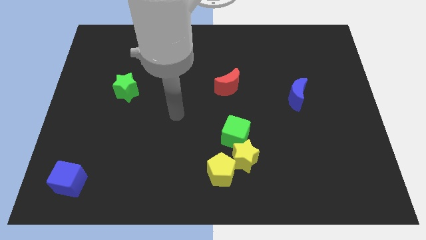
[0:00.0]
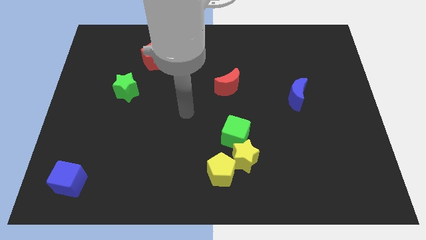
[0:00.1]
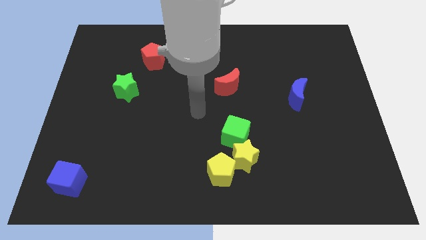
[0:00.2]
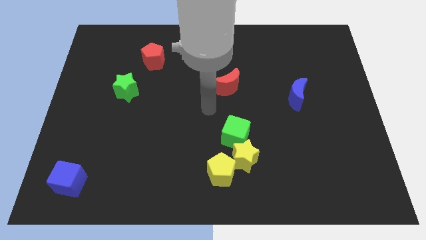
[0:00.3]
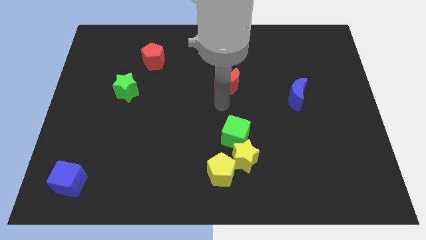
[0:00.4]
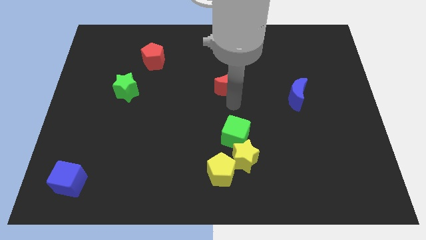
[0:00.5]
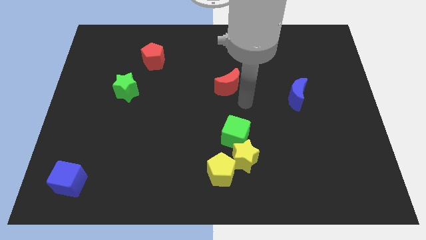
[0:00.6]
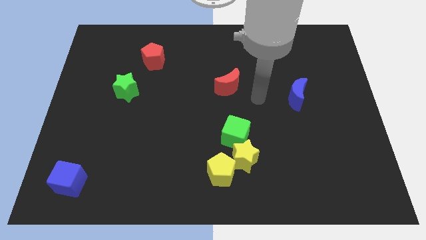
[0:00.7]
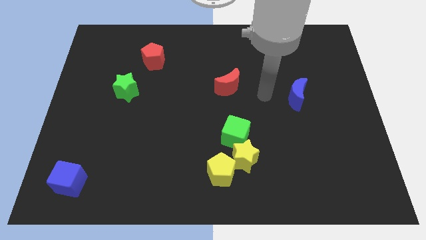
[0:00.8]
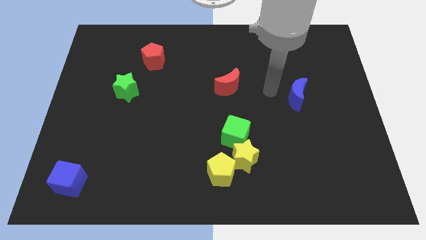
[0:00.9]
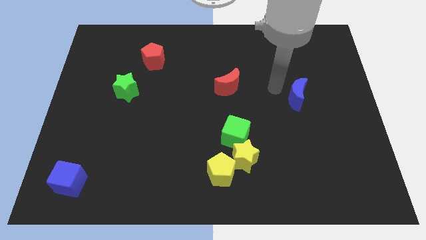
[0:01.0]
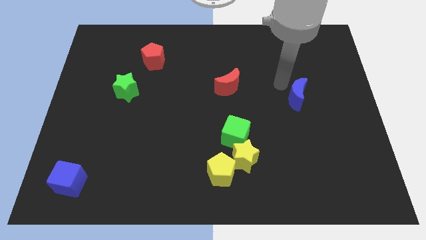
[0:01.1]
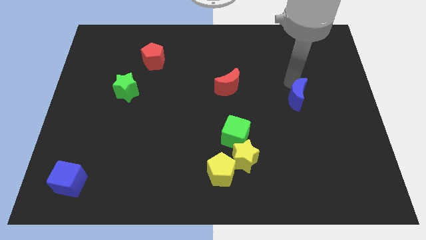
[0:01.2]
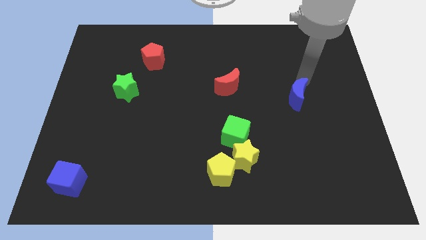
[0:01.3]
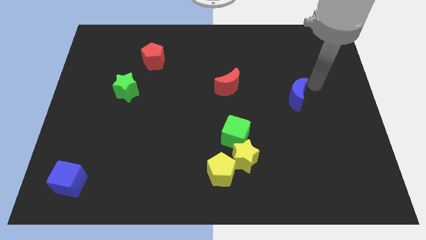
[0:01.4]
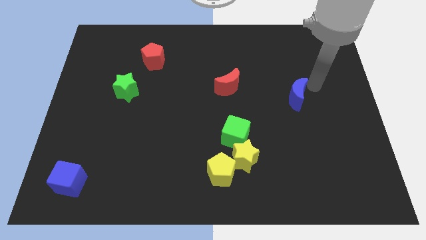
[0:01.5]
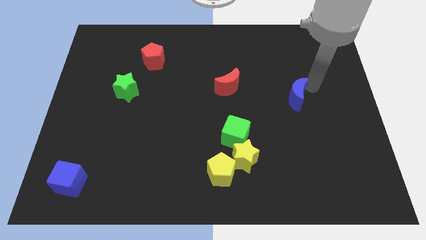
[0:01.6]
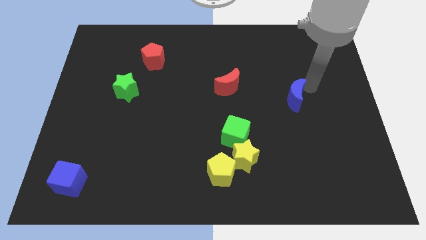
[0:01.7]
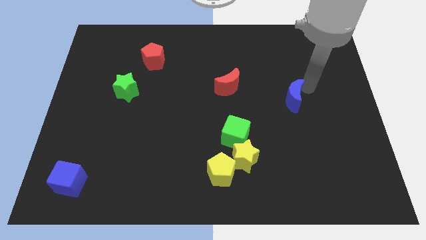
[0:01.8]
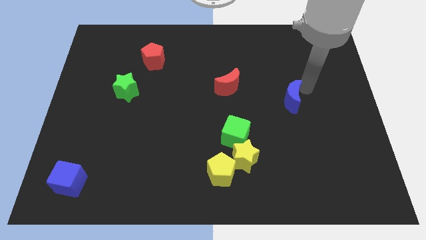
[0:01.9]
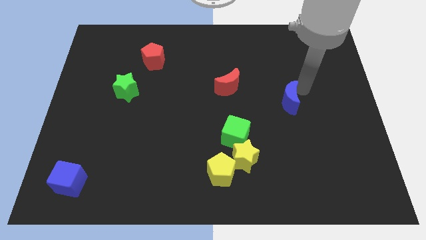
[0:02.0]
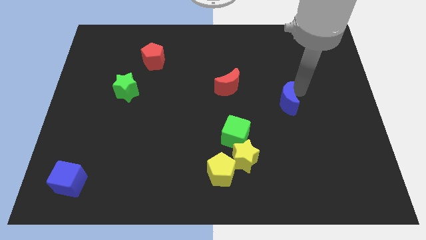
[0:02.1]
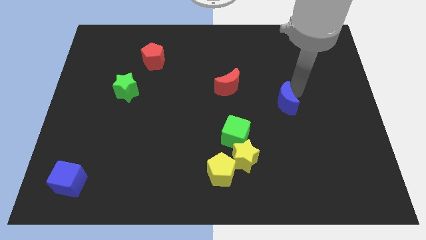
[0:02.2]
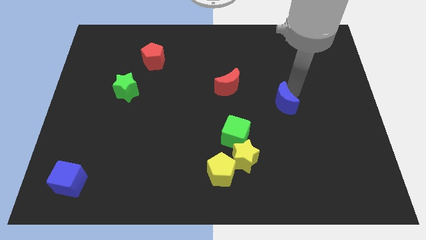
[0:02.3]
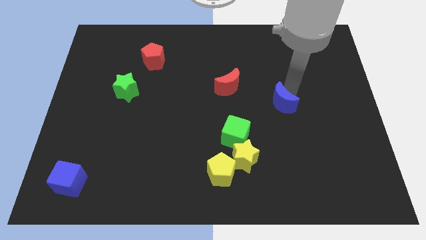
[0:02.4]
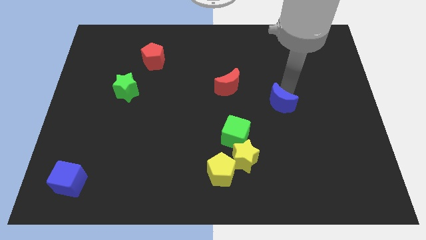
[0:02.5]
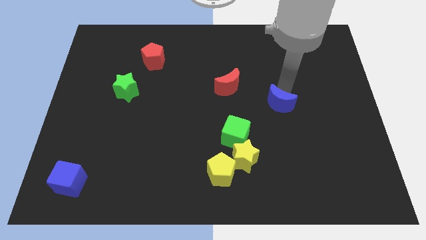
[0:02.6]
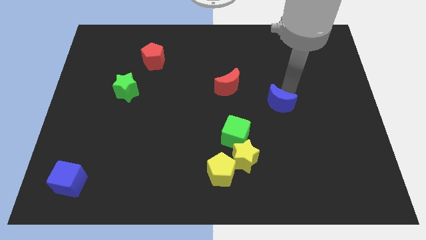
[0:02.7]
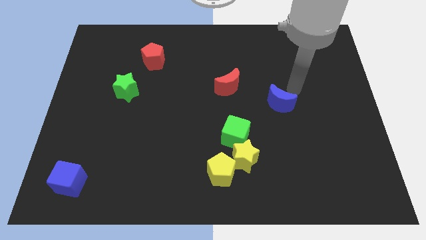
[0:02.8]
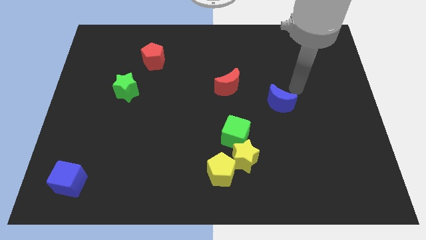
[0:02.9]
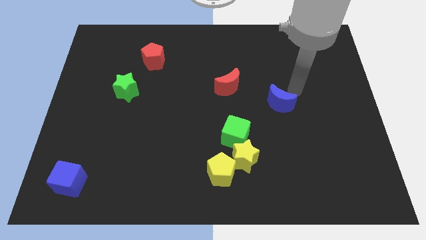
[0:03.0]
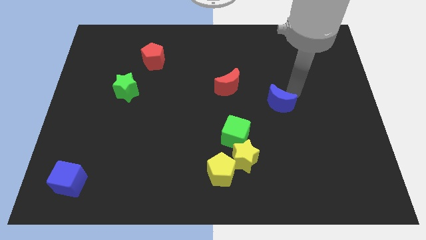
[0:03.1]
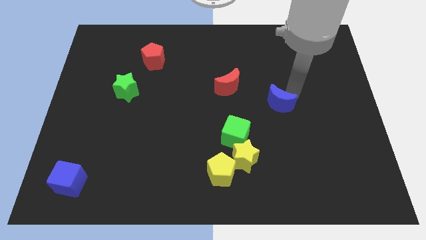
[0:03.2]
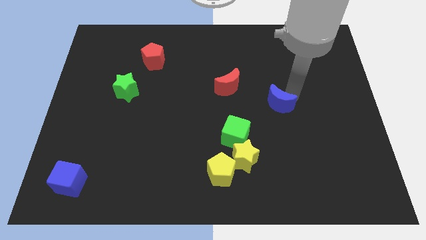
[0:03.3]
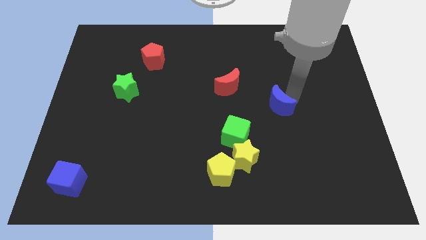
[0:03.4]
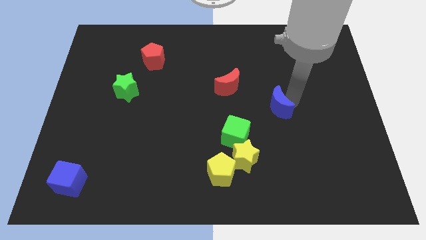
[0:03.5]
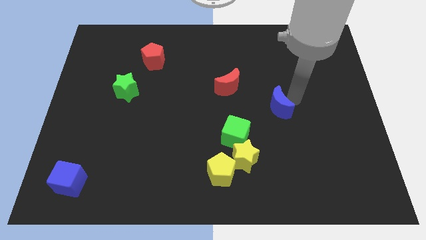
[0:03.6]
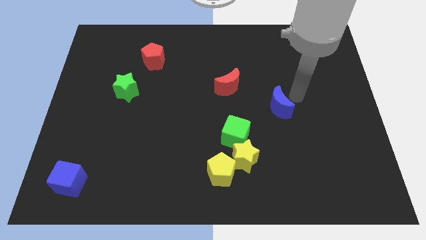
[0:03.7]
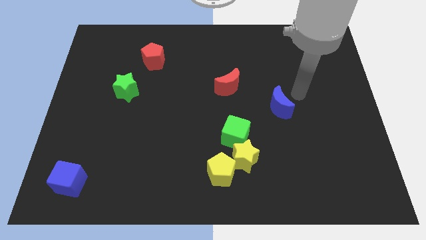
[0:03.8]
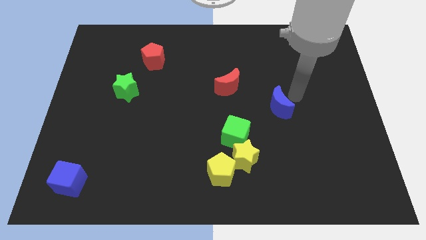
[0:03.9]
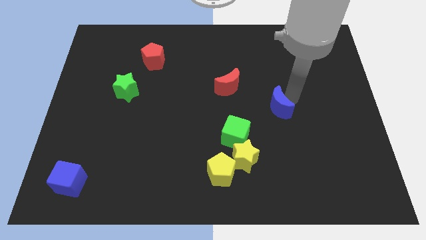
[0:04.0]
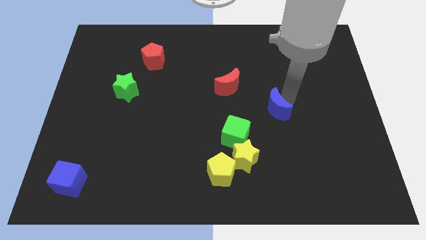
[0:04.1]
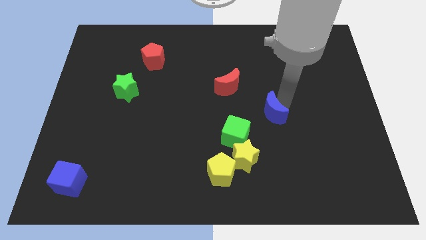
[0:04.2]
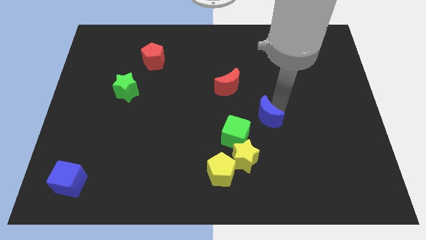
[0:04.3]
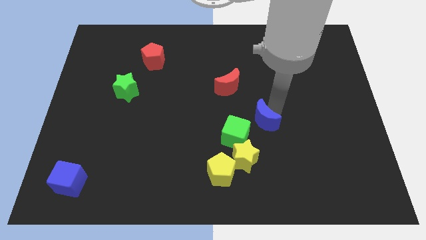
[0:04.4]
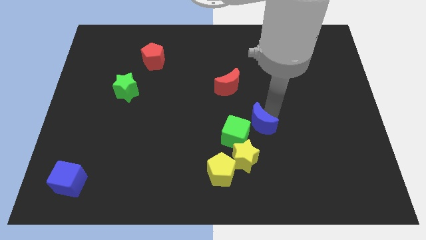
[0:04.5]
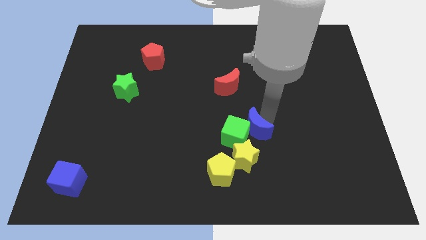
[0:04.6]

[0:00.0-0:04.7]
move the blue moon to the green cube

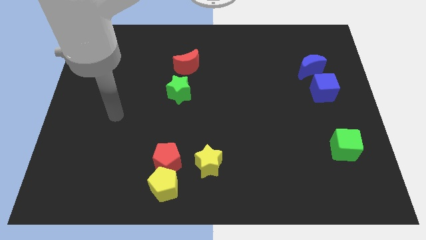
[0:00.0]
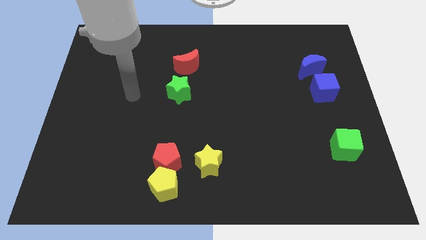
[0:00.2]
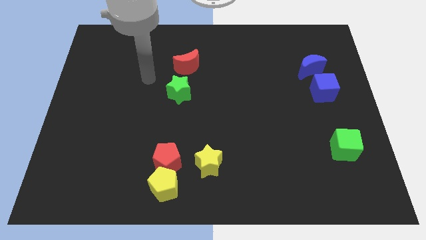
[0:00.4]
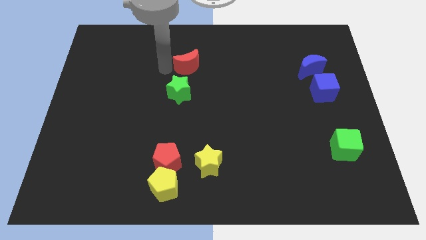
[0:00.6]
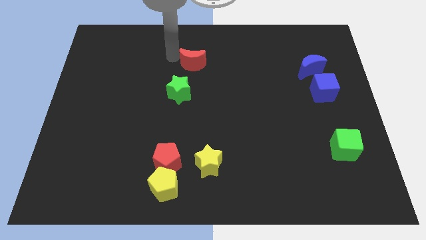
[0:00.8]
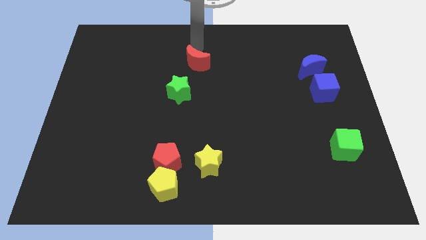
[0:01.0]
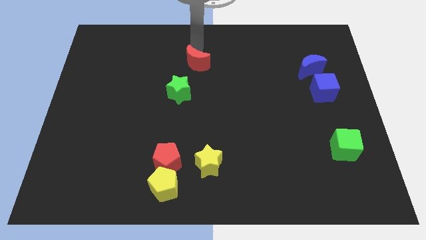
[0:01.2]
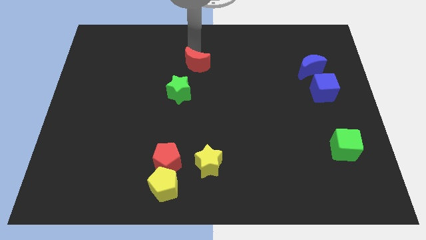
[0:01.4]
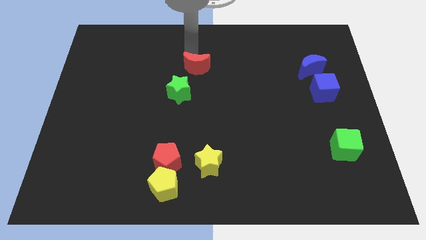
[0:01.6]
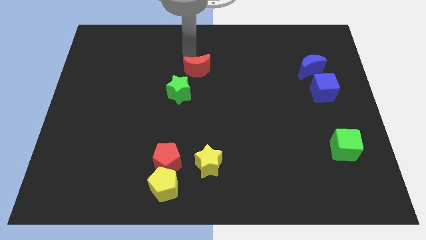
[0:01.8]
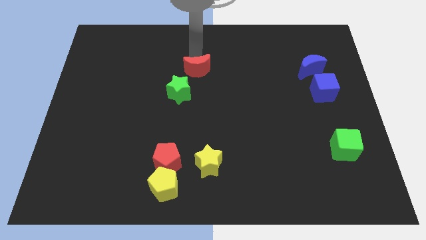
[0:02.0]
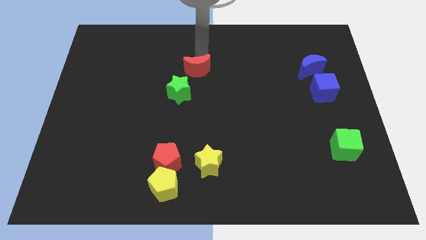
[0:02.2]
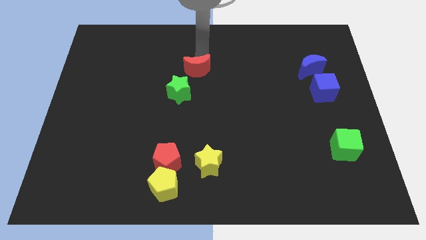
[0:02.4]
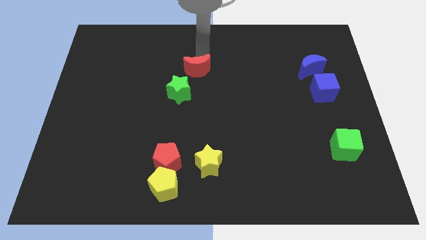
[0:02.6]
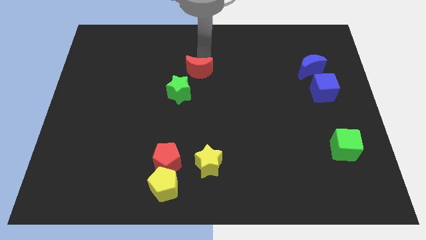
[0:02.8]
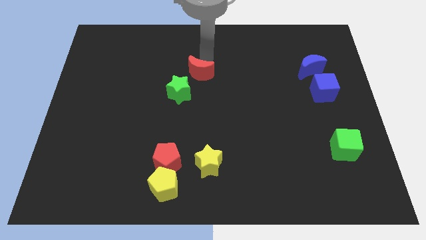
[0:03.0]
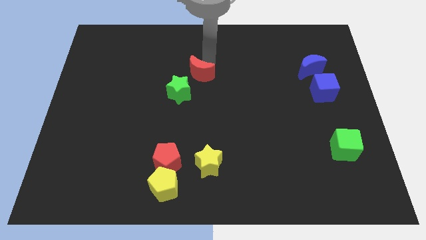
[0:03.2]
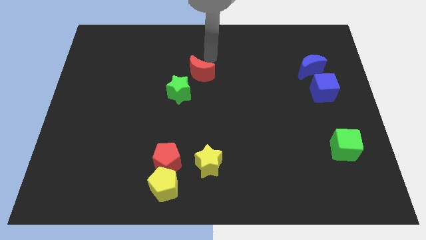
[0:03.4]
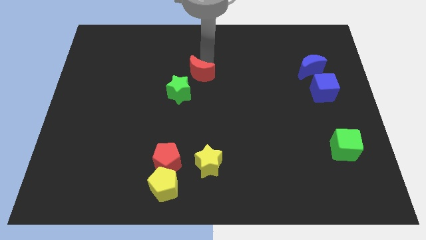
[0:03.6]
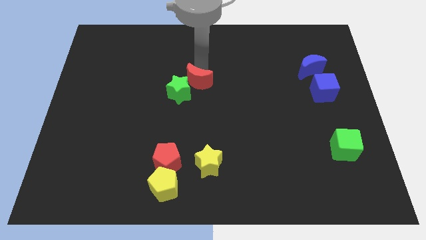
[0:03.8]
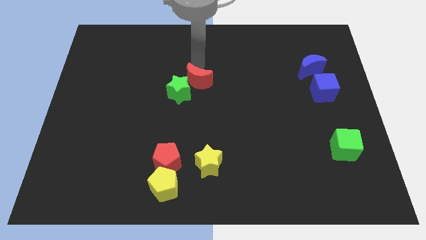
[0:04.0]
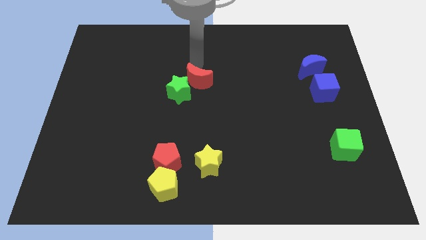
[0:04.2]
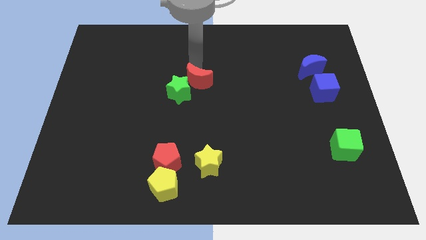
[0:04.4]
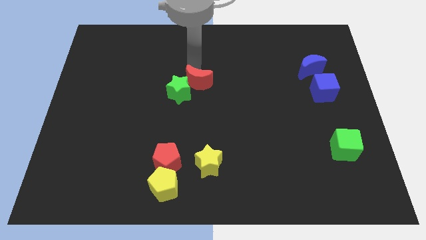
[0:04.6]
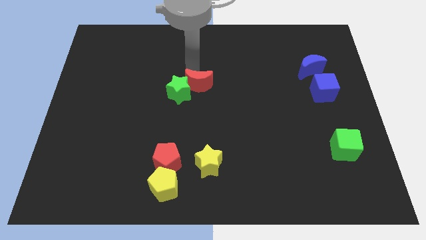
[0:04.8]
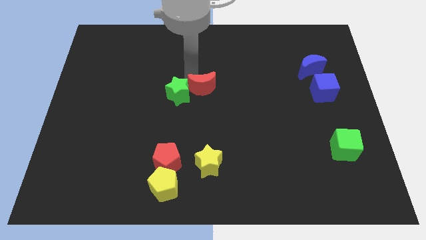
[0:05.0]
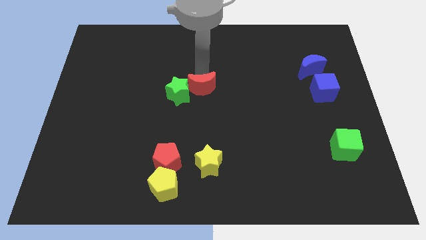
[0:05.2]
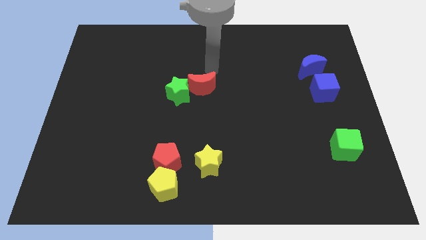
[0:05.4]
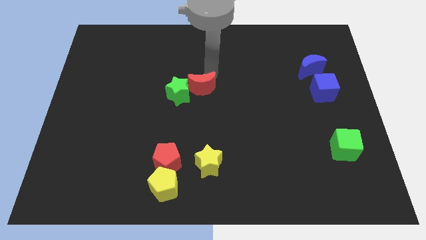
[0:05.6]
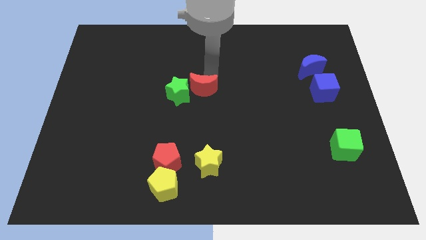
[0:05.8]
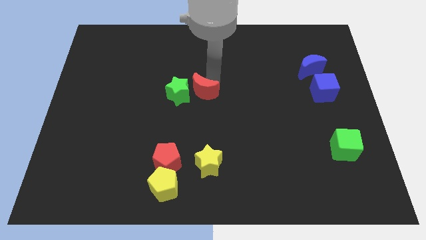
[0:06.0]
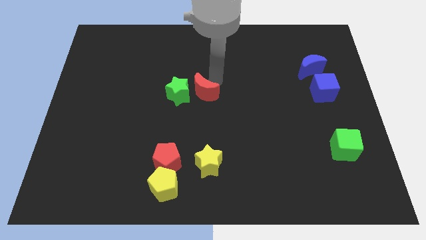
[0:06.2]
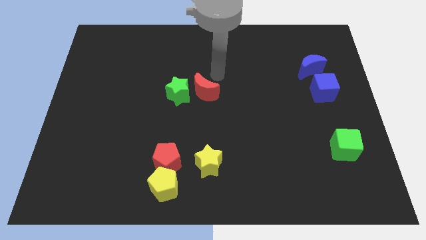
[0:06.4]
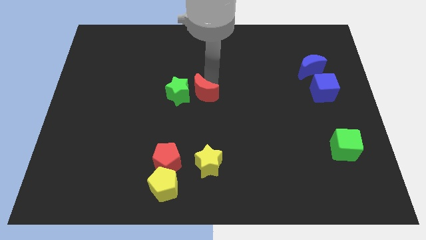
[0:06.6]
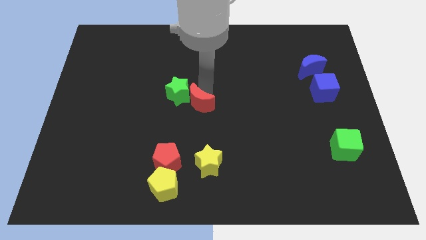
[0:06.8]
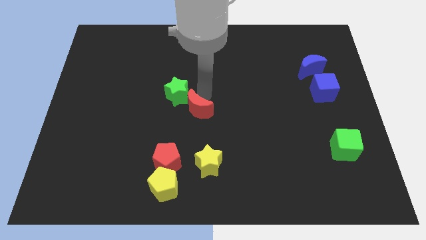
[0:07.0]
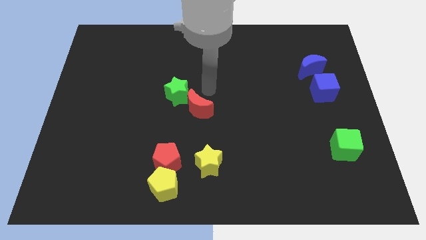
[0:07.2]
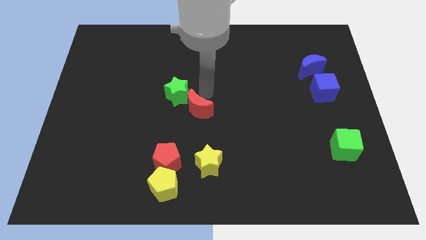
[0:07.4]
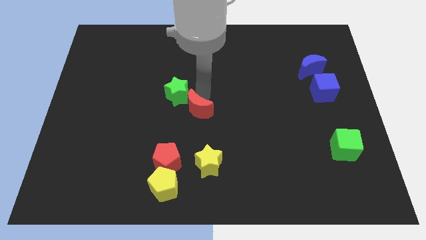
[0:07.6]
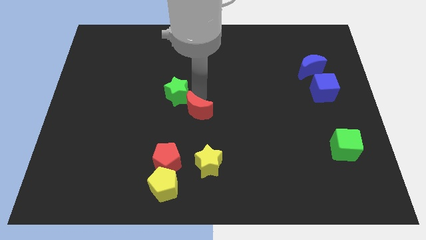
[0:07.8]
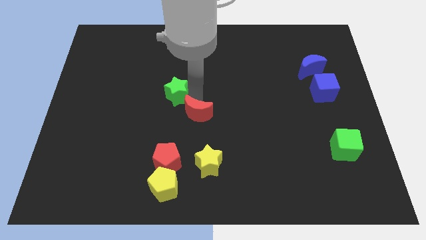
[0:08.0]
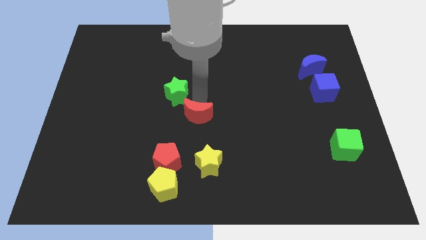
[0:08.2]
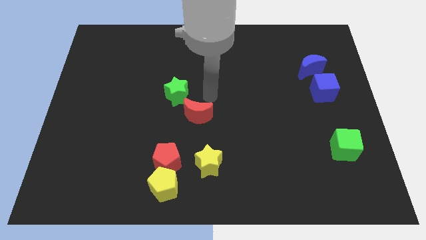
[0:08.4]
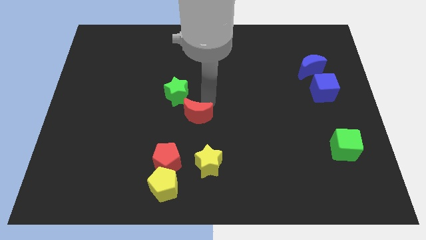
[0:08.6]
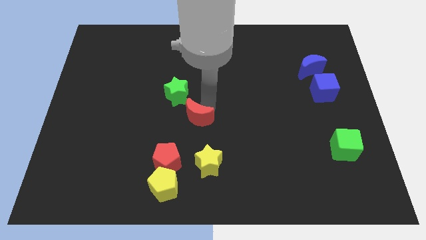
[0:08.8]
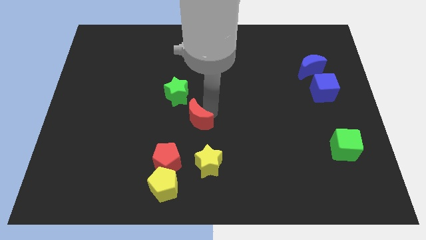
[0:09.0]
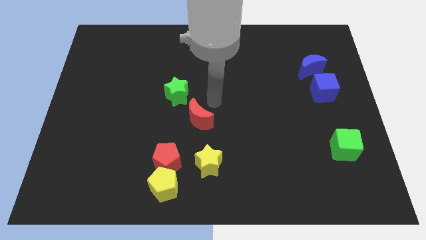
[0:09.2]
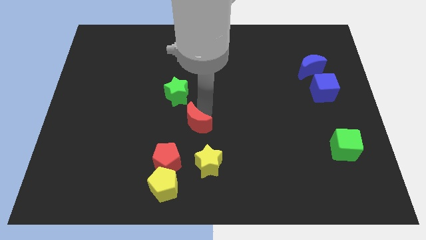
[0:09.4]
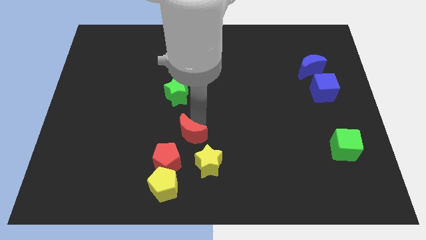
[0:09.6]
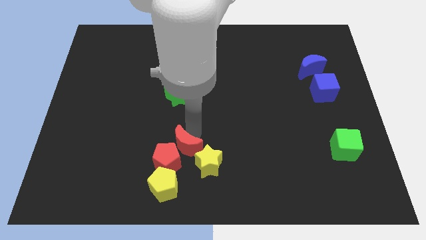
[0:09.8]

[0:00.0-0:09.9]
put the red moon next to the red pentagon
